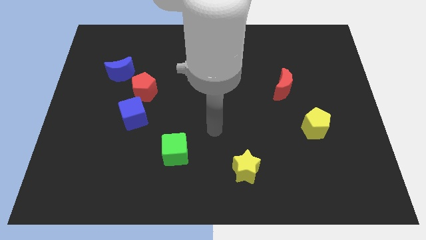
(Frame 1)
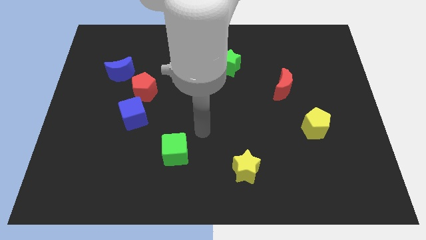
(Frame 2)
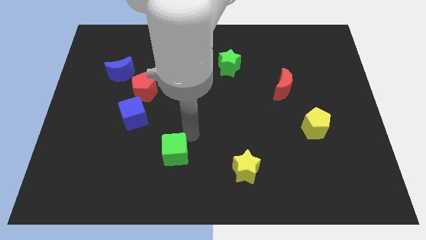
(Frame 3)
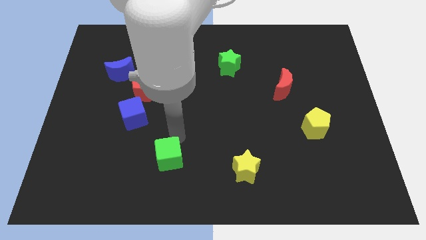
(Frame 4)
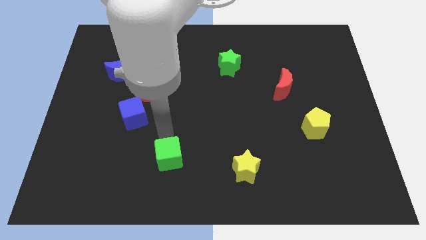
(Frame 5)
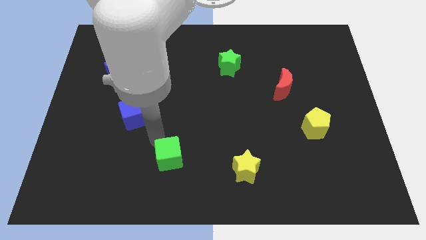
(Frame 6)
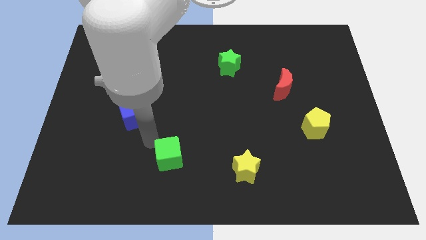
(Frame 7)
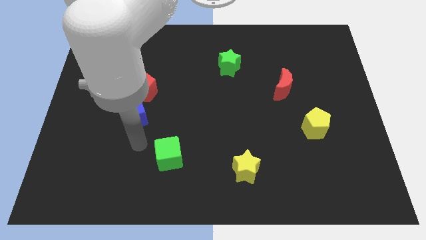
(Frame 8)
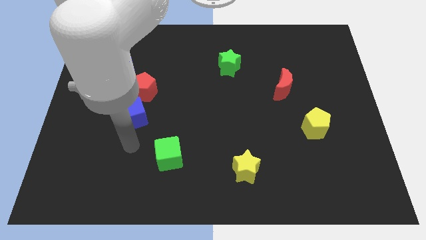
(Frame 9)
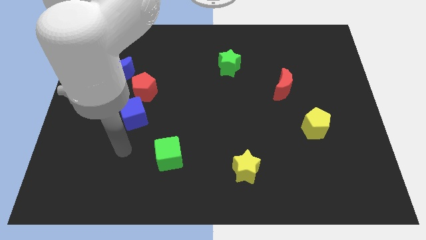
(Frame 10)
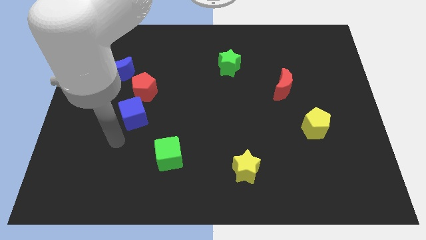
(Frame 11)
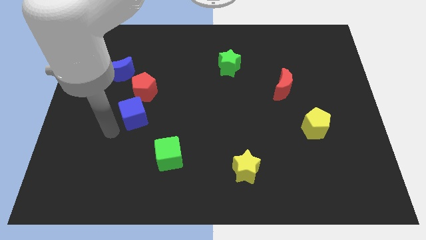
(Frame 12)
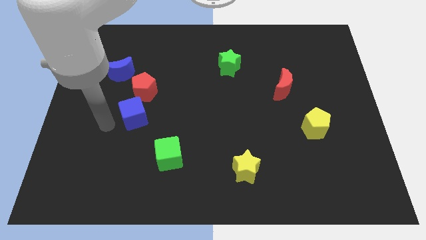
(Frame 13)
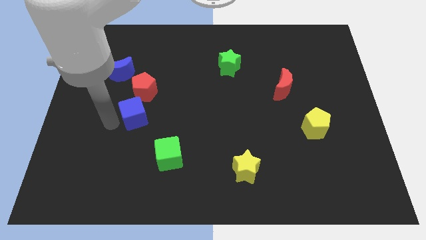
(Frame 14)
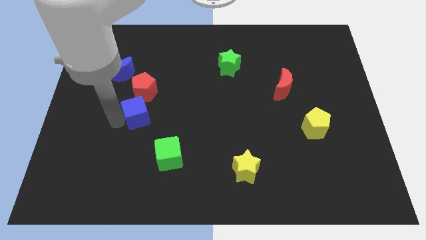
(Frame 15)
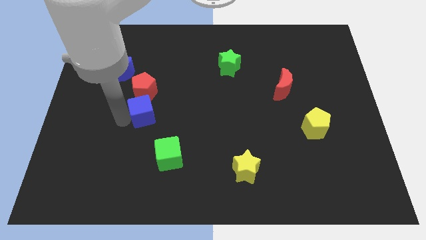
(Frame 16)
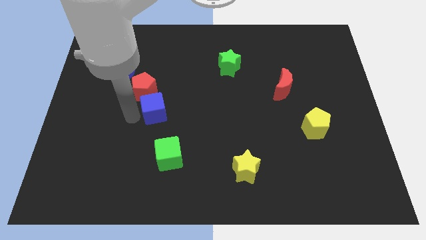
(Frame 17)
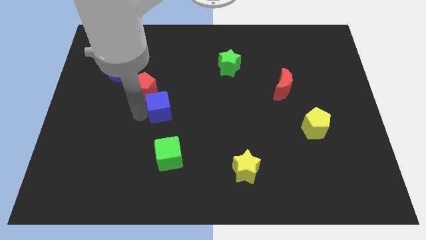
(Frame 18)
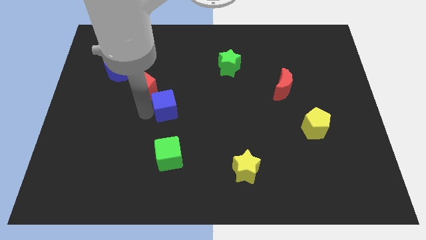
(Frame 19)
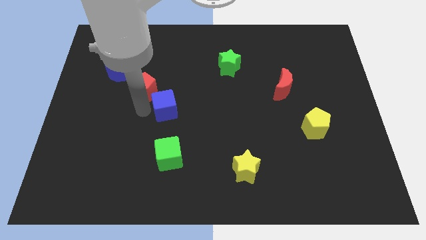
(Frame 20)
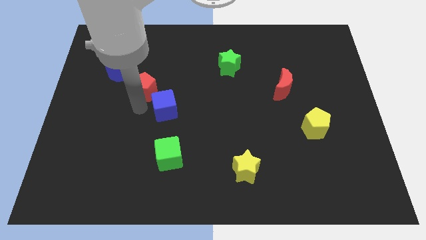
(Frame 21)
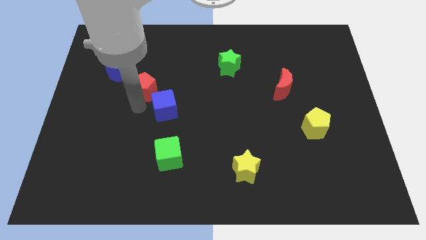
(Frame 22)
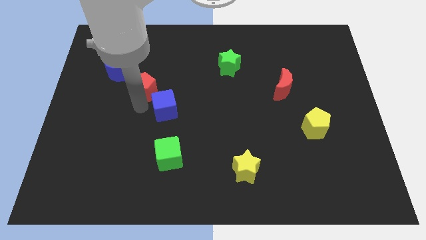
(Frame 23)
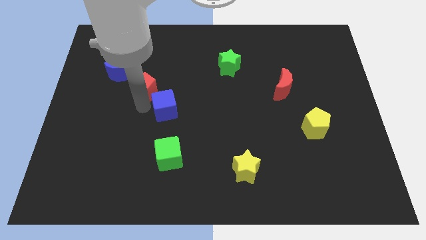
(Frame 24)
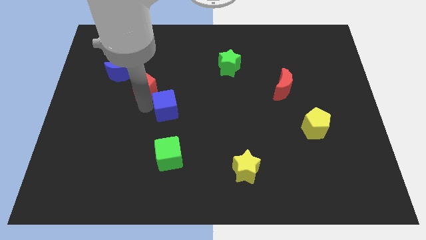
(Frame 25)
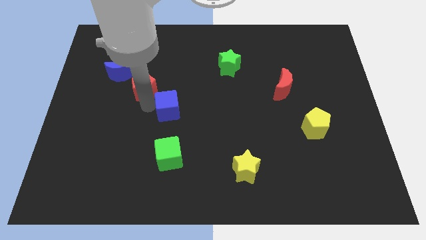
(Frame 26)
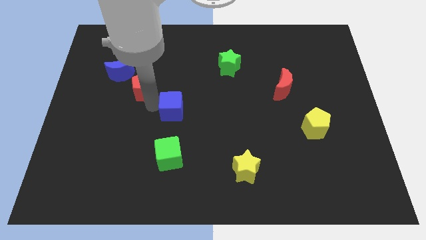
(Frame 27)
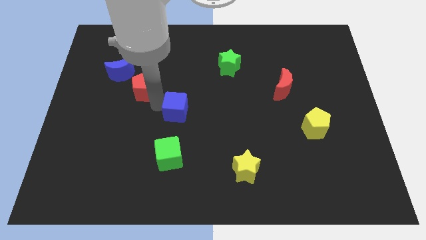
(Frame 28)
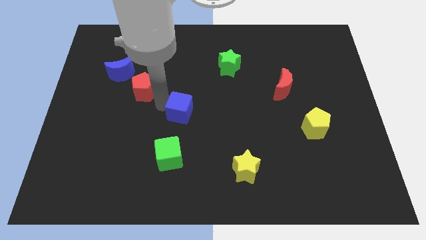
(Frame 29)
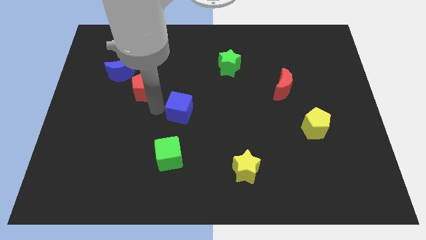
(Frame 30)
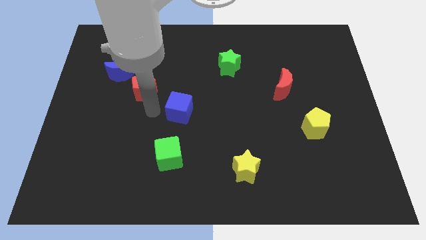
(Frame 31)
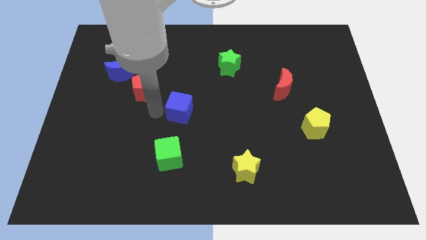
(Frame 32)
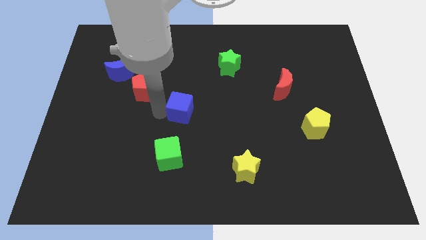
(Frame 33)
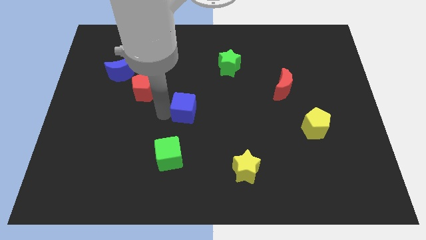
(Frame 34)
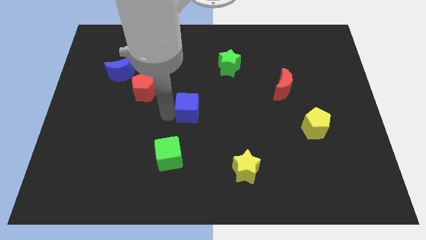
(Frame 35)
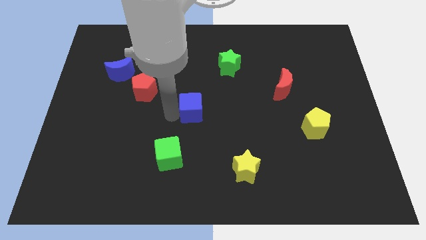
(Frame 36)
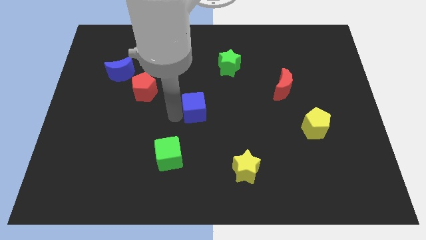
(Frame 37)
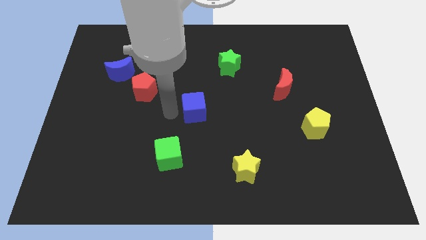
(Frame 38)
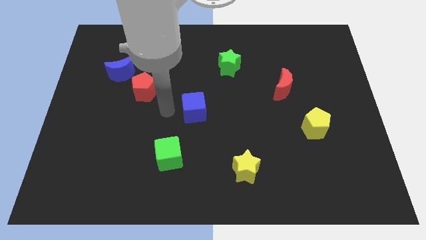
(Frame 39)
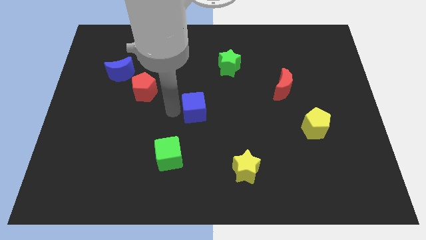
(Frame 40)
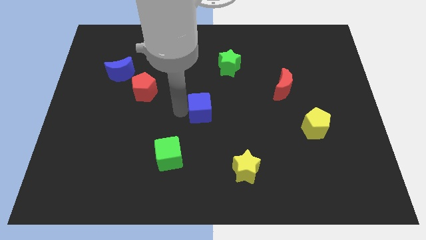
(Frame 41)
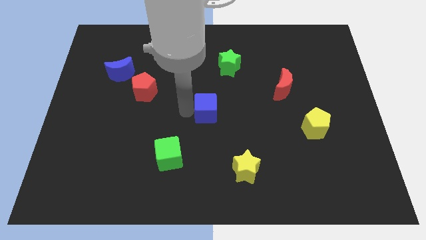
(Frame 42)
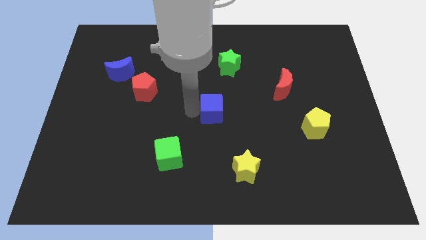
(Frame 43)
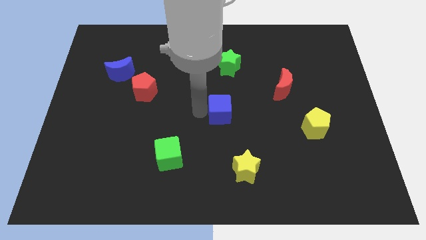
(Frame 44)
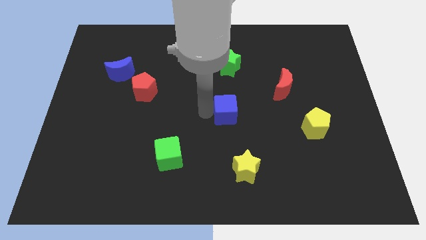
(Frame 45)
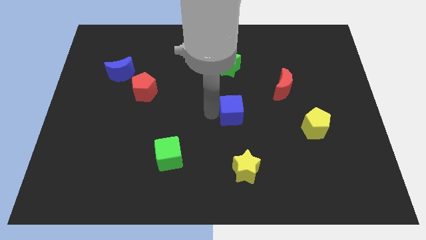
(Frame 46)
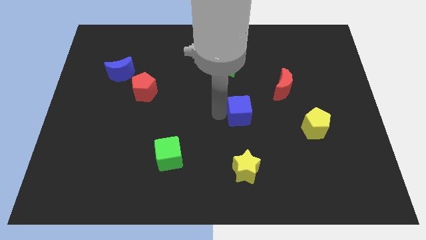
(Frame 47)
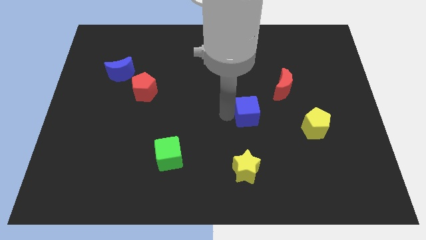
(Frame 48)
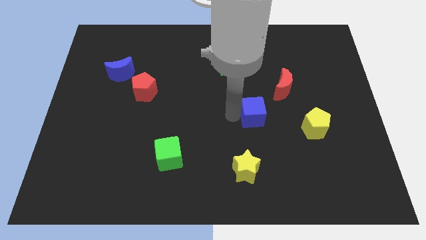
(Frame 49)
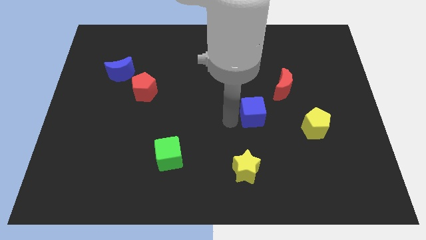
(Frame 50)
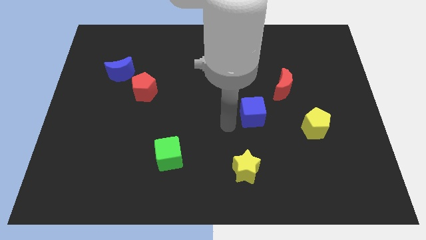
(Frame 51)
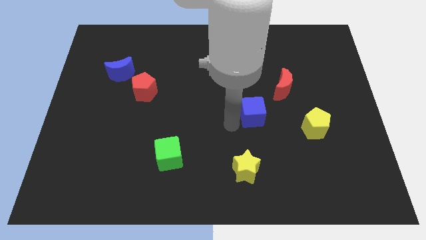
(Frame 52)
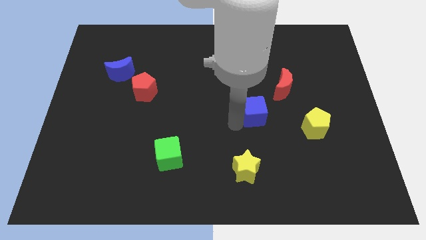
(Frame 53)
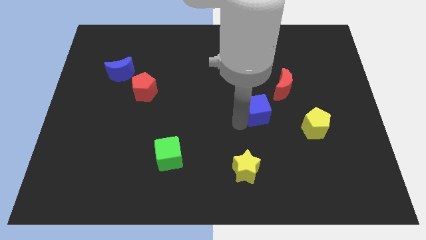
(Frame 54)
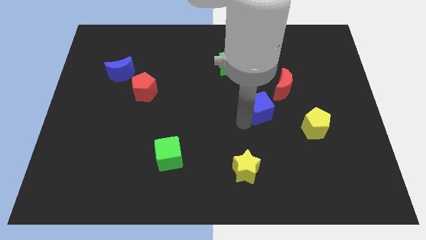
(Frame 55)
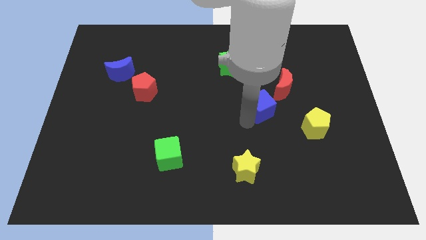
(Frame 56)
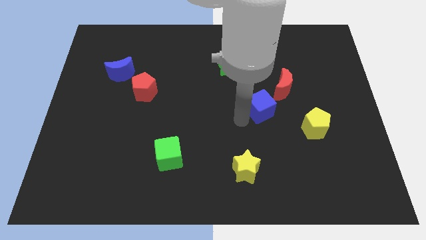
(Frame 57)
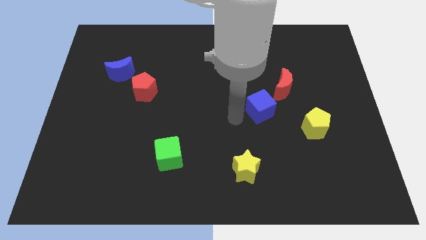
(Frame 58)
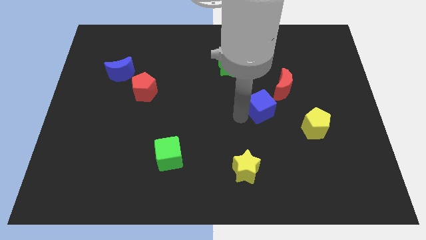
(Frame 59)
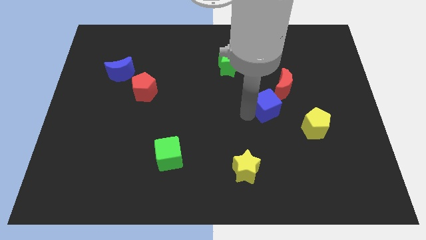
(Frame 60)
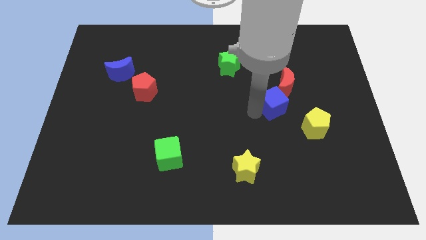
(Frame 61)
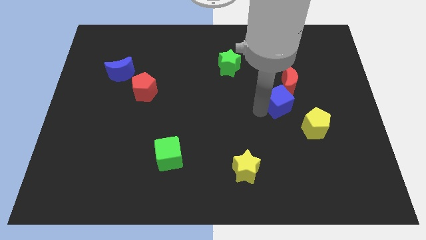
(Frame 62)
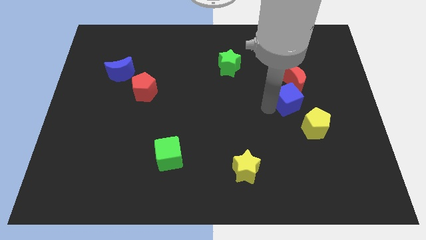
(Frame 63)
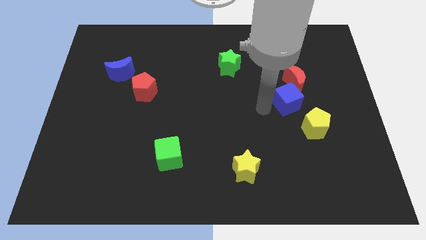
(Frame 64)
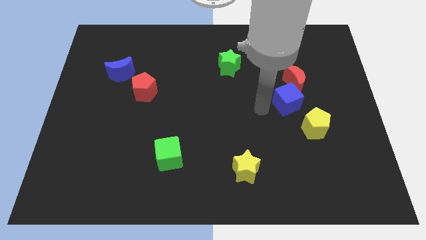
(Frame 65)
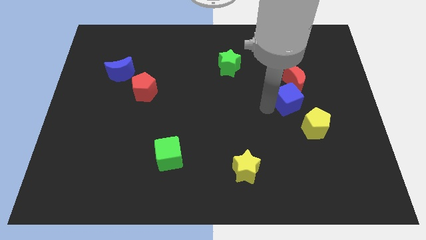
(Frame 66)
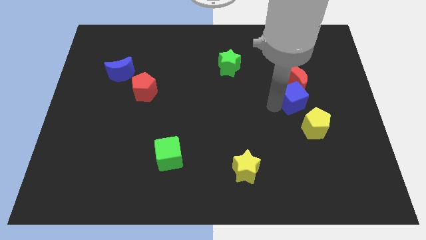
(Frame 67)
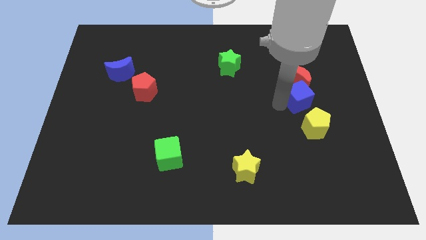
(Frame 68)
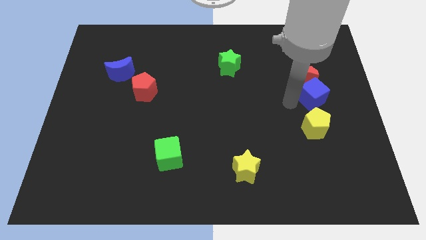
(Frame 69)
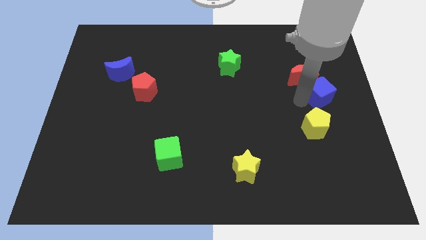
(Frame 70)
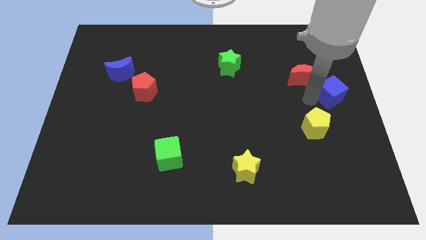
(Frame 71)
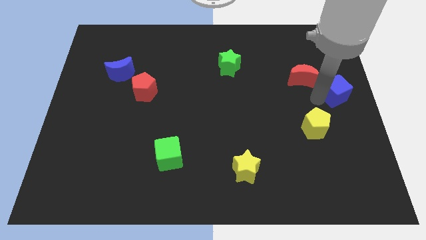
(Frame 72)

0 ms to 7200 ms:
slide the blue cube just right of the red moon

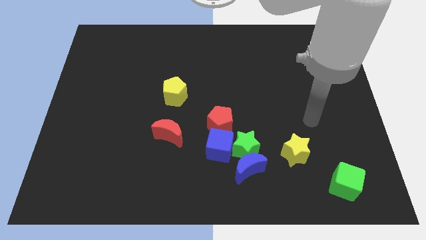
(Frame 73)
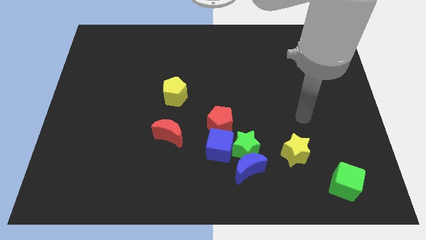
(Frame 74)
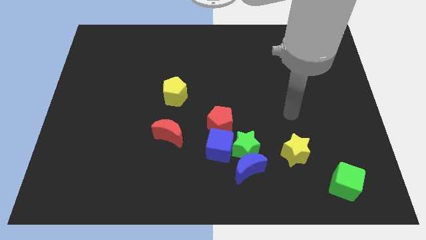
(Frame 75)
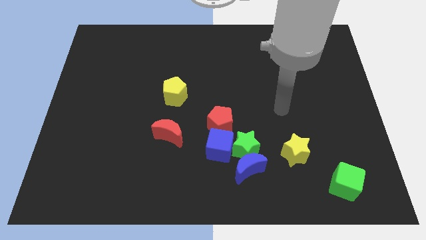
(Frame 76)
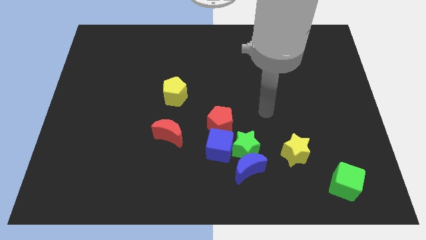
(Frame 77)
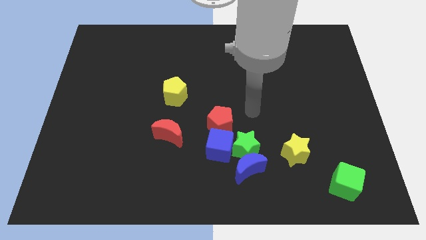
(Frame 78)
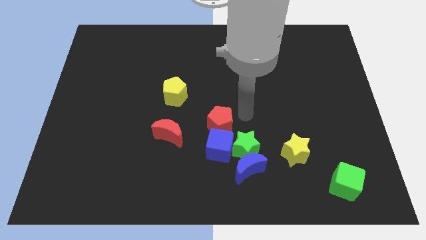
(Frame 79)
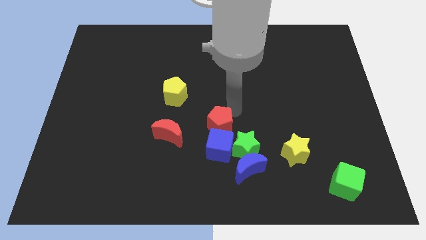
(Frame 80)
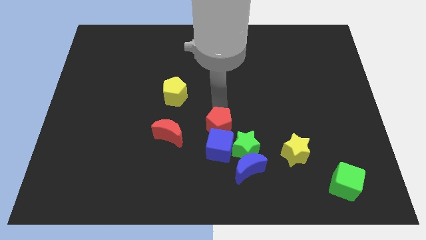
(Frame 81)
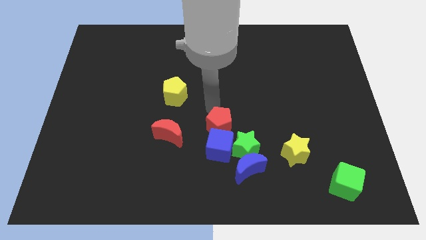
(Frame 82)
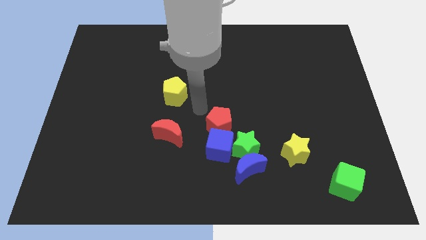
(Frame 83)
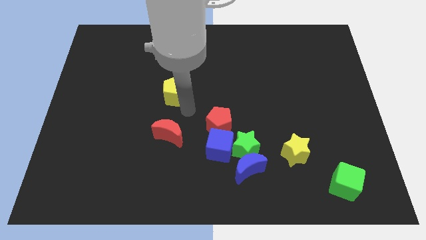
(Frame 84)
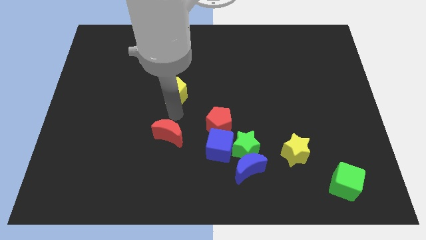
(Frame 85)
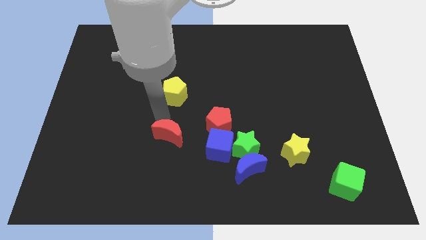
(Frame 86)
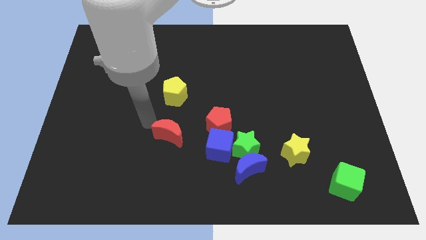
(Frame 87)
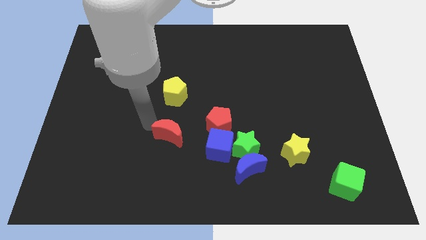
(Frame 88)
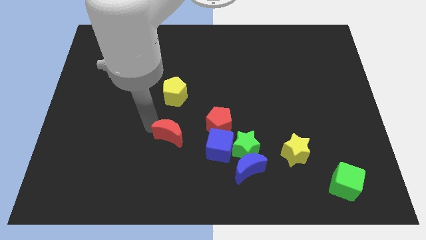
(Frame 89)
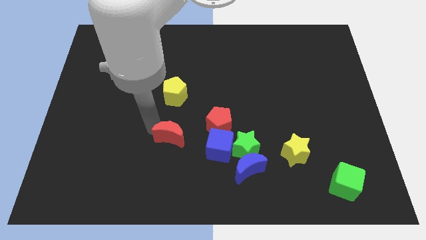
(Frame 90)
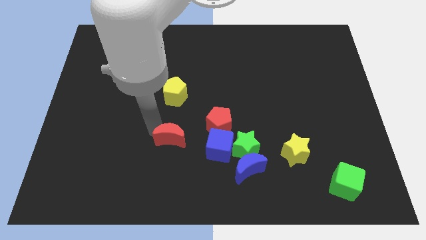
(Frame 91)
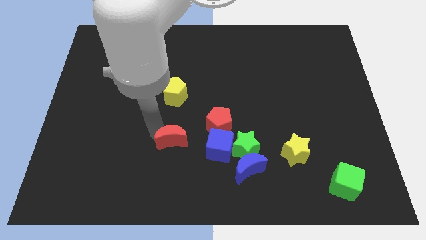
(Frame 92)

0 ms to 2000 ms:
push the red moon just left of the green star
